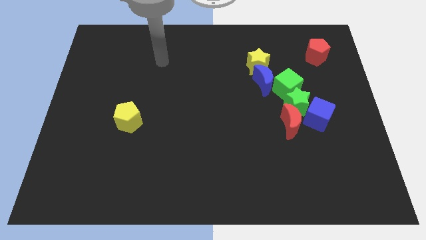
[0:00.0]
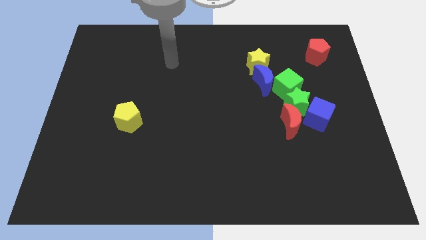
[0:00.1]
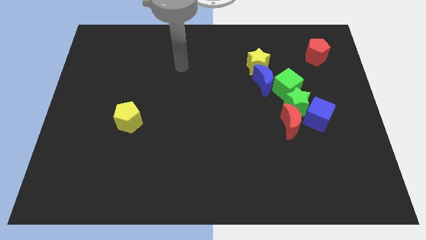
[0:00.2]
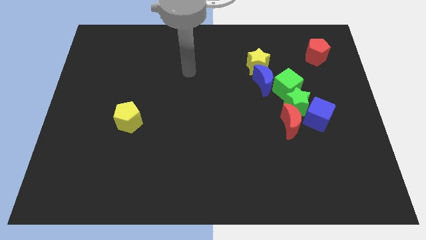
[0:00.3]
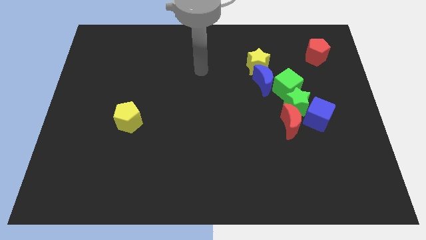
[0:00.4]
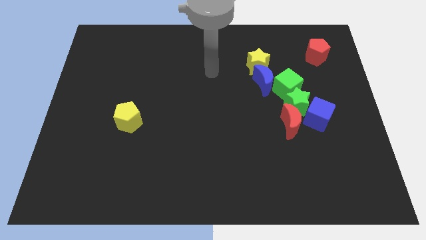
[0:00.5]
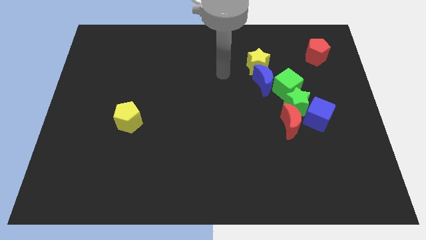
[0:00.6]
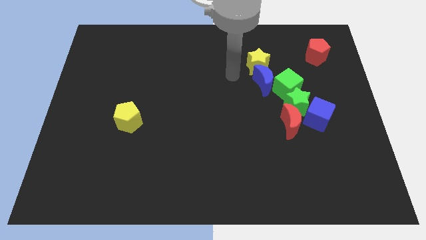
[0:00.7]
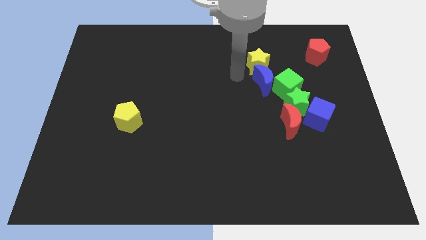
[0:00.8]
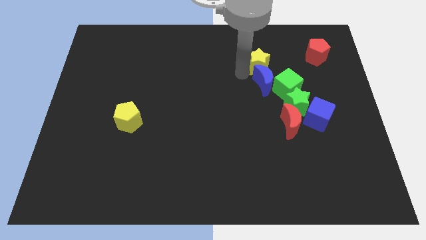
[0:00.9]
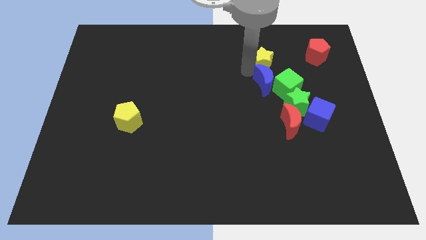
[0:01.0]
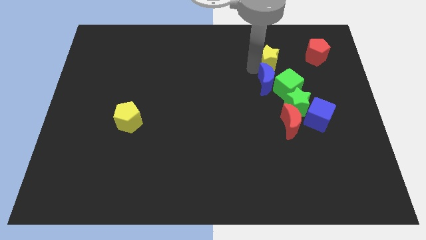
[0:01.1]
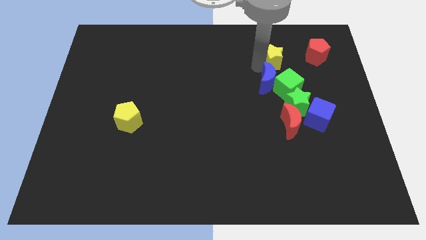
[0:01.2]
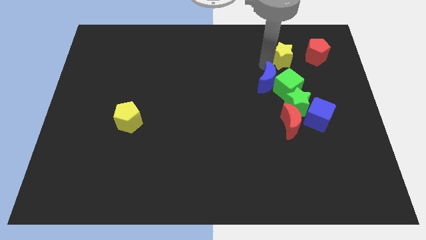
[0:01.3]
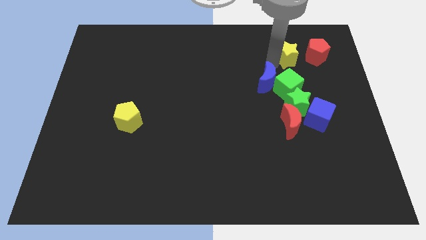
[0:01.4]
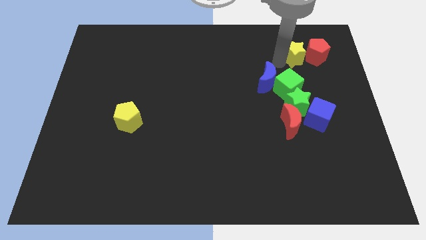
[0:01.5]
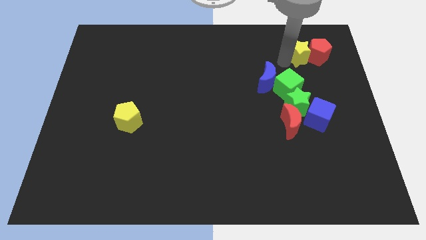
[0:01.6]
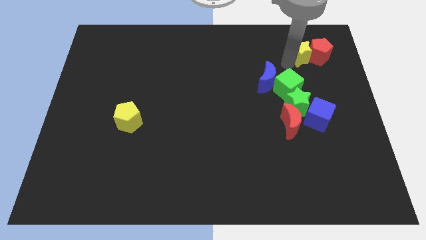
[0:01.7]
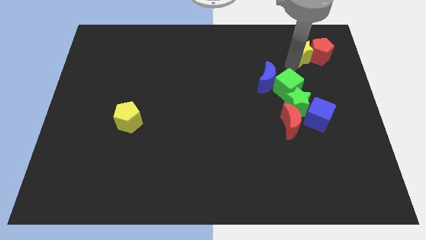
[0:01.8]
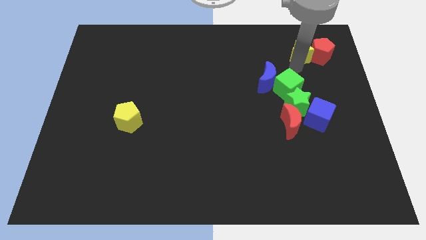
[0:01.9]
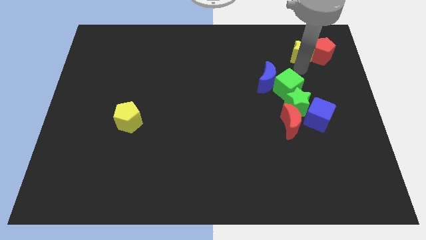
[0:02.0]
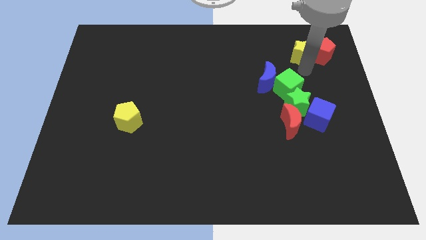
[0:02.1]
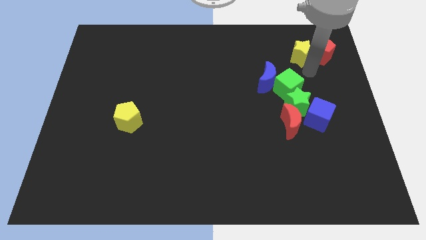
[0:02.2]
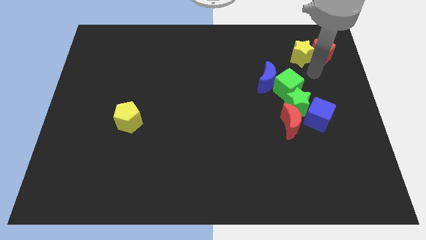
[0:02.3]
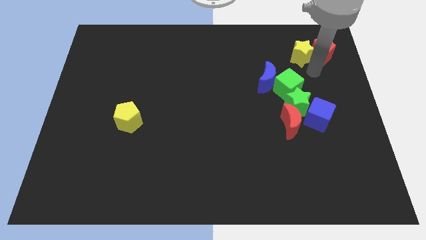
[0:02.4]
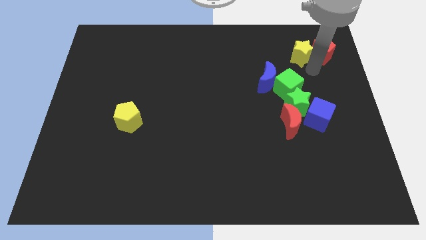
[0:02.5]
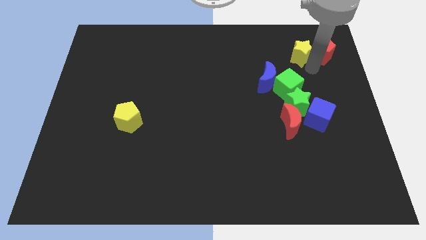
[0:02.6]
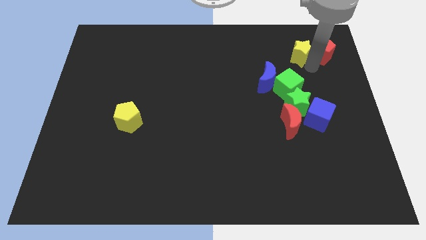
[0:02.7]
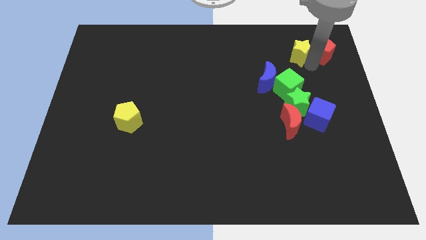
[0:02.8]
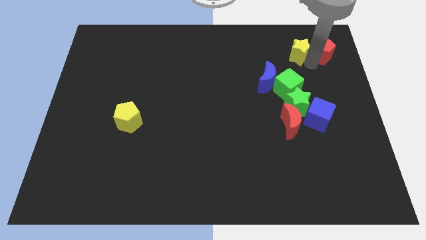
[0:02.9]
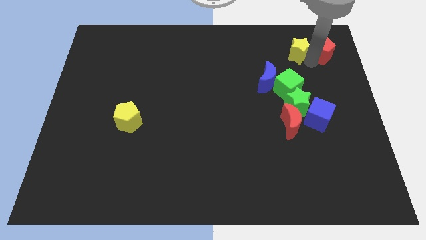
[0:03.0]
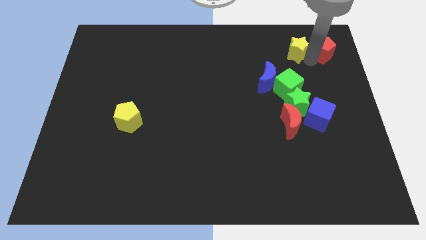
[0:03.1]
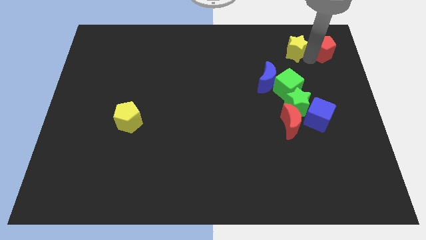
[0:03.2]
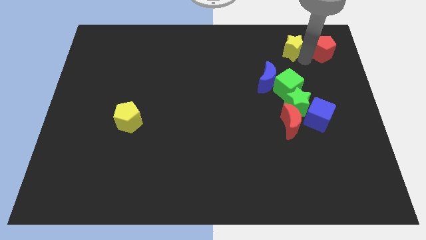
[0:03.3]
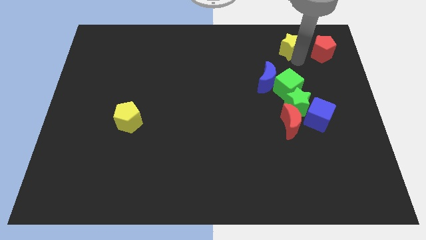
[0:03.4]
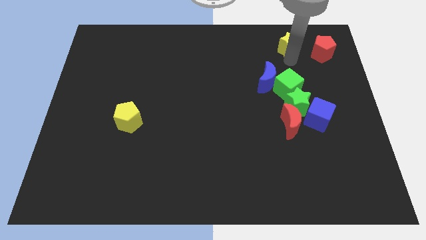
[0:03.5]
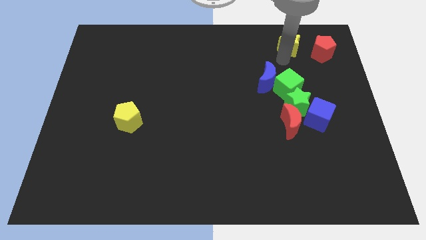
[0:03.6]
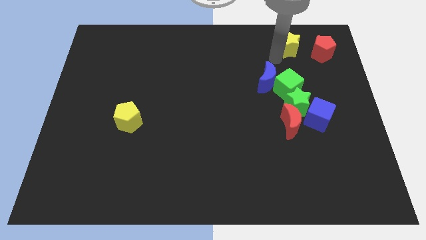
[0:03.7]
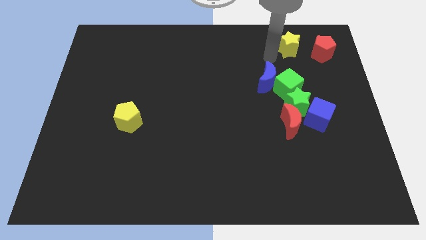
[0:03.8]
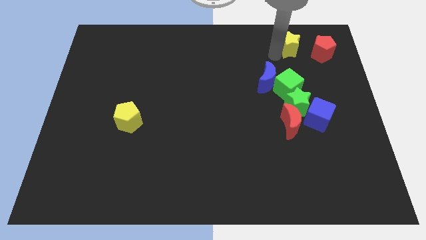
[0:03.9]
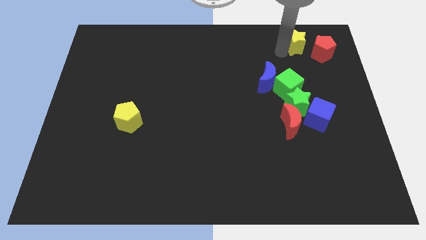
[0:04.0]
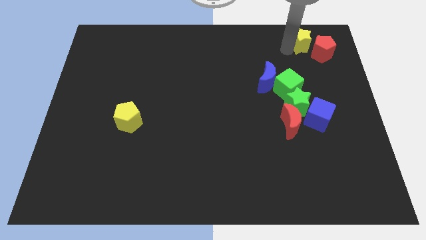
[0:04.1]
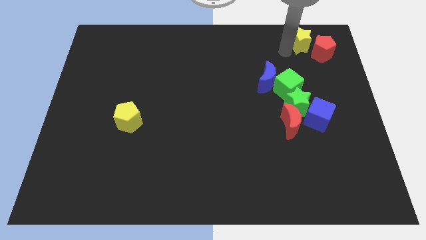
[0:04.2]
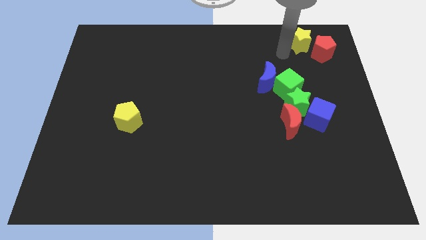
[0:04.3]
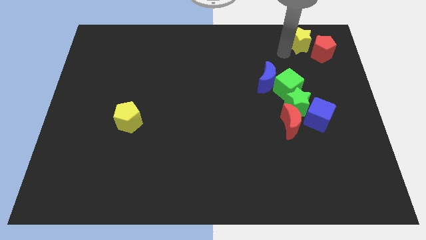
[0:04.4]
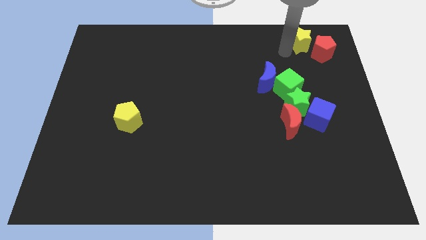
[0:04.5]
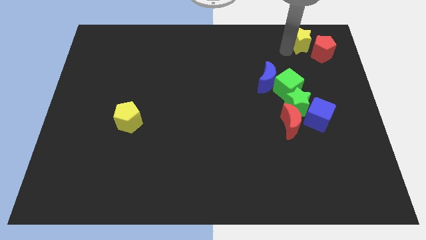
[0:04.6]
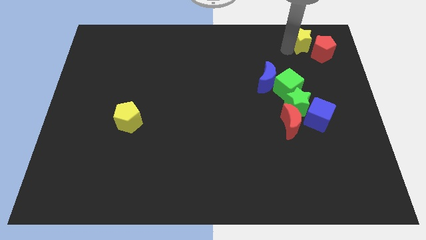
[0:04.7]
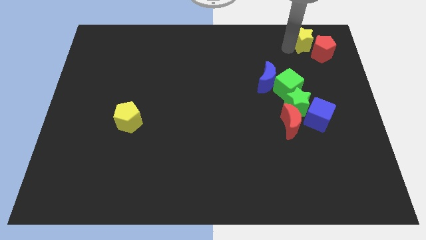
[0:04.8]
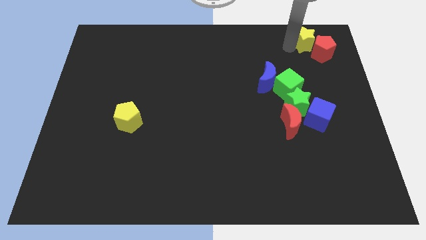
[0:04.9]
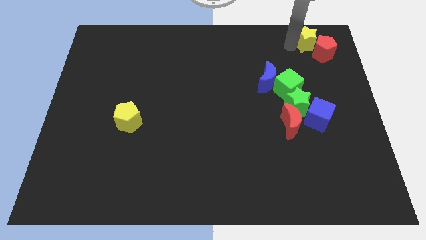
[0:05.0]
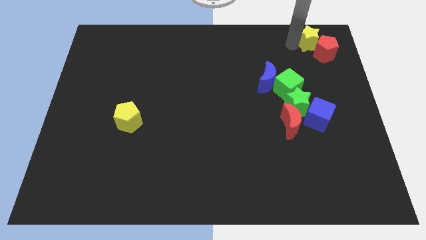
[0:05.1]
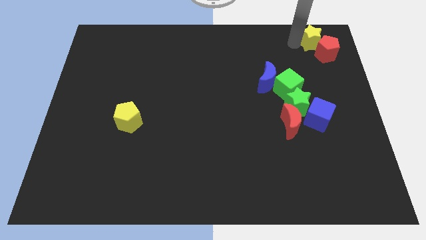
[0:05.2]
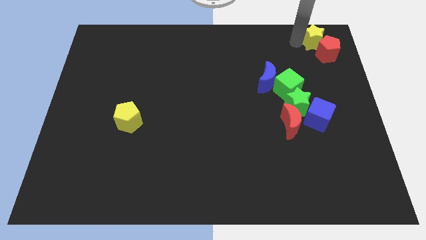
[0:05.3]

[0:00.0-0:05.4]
move the yellow star to the upper right corner

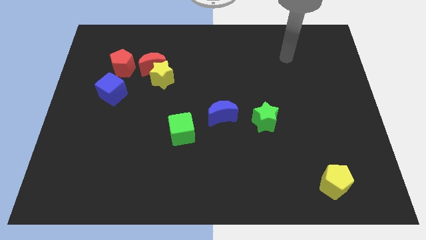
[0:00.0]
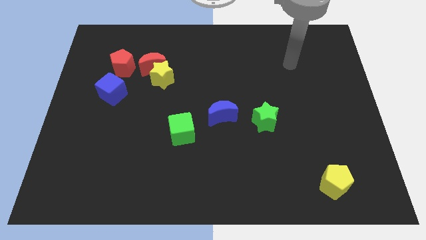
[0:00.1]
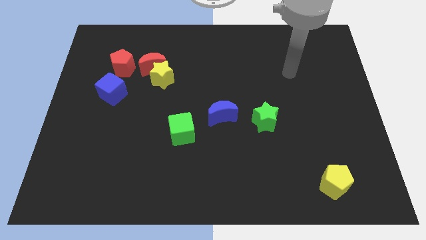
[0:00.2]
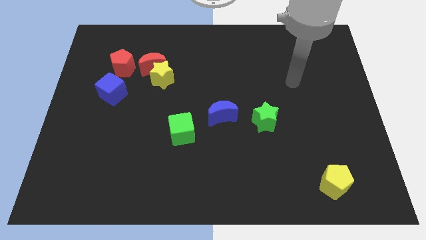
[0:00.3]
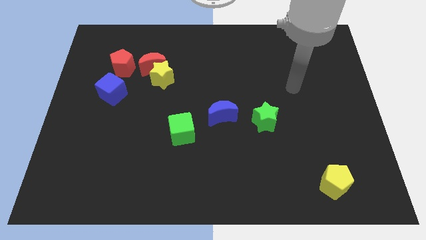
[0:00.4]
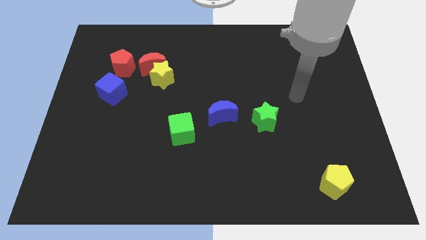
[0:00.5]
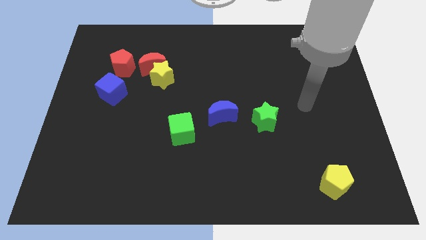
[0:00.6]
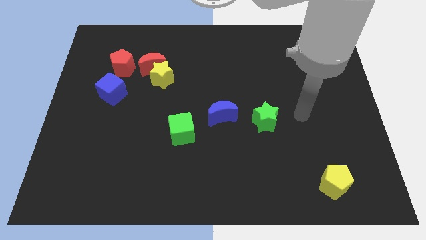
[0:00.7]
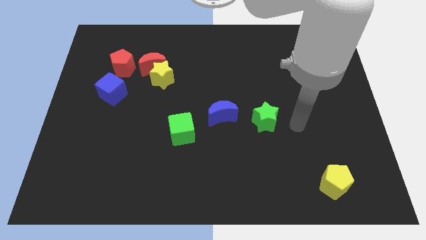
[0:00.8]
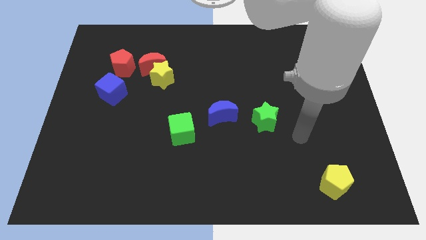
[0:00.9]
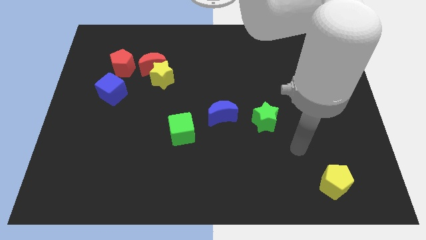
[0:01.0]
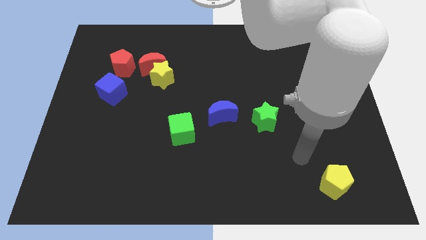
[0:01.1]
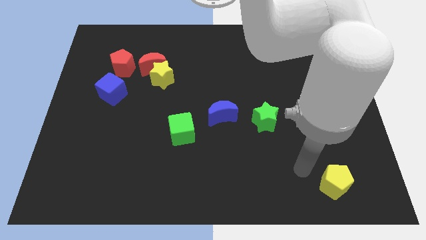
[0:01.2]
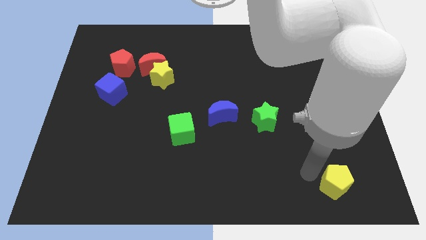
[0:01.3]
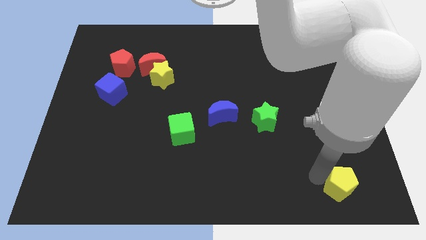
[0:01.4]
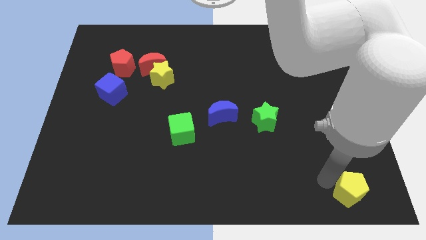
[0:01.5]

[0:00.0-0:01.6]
slide the yellow pentagon to the lower right corner
